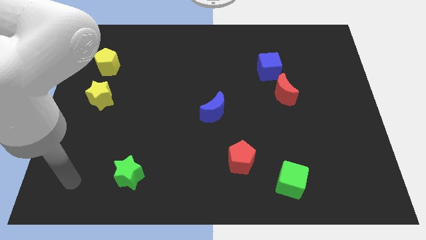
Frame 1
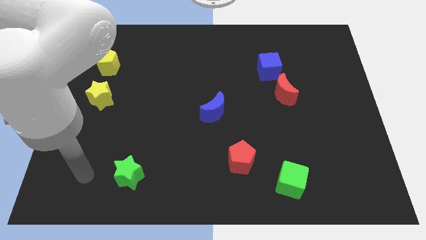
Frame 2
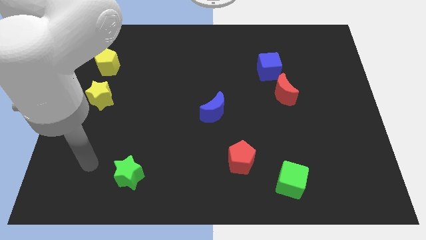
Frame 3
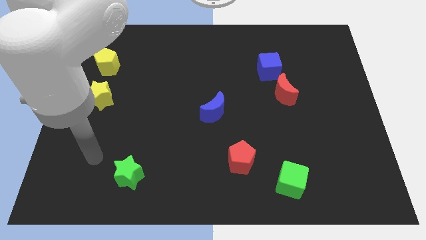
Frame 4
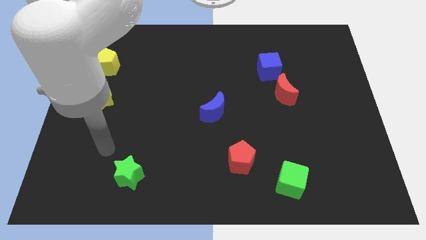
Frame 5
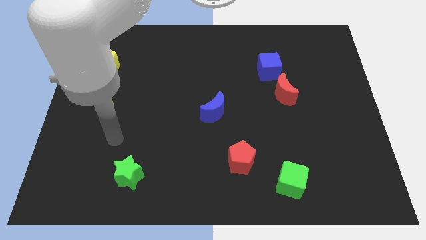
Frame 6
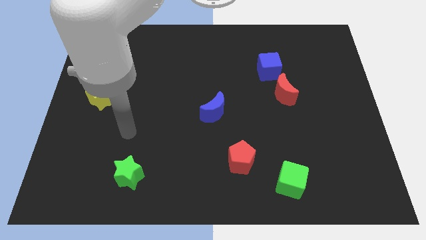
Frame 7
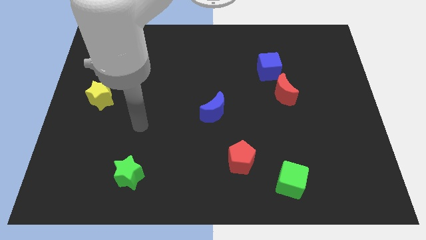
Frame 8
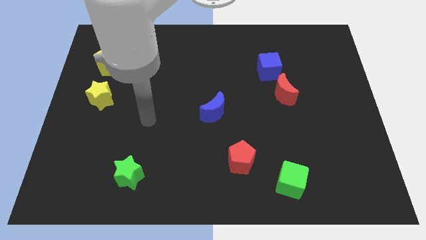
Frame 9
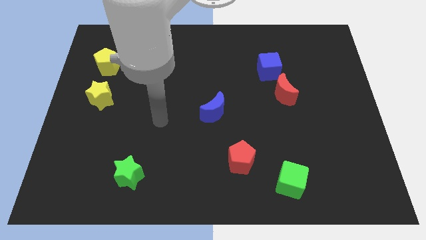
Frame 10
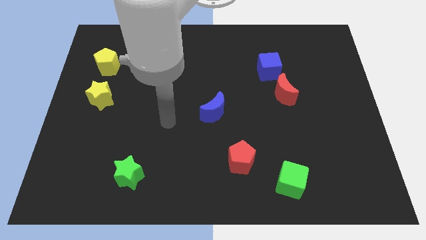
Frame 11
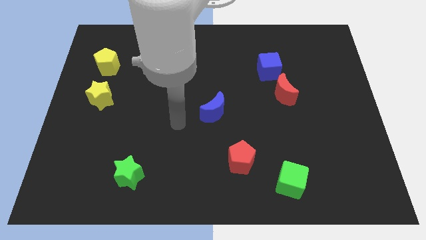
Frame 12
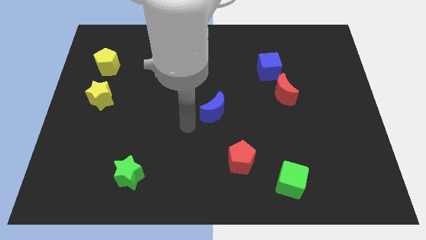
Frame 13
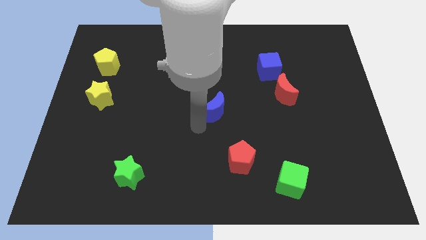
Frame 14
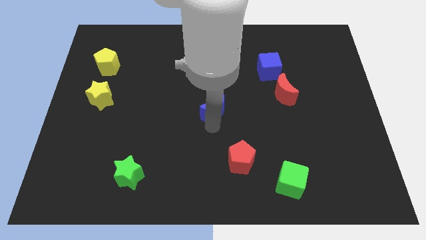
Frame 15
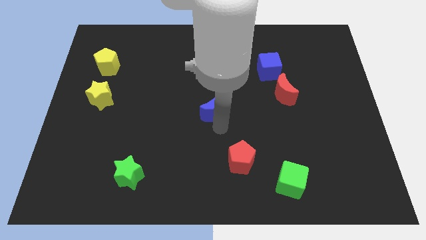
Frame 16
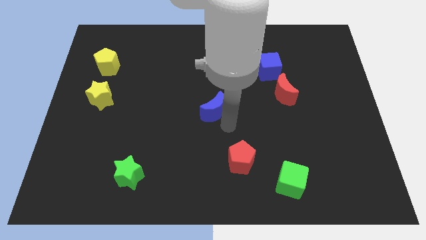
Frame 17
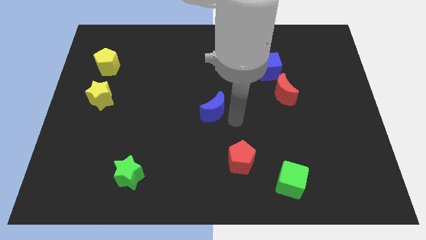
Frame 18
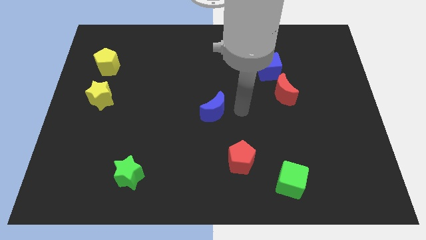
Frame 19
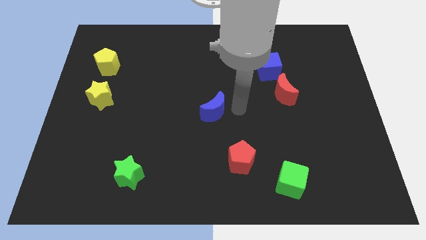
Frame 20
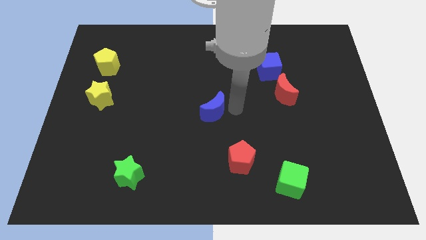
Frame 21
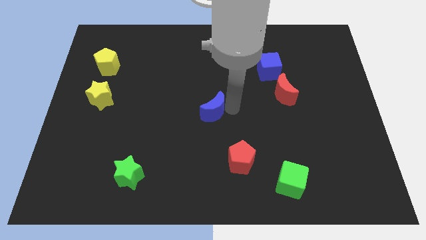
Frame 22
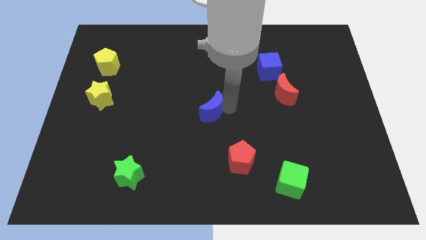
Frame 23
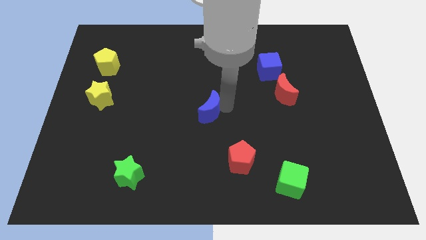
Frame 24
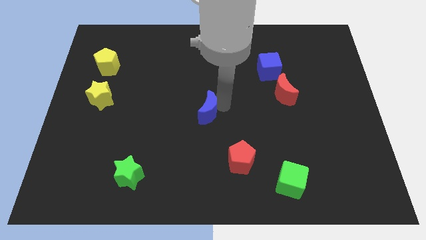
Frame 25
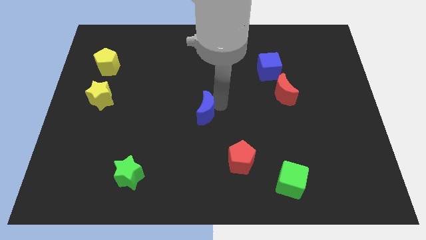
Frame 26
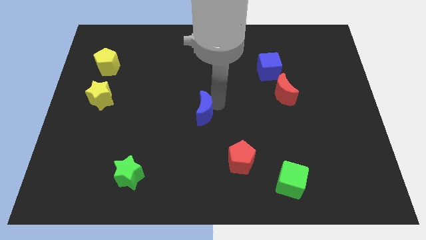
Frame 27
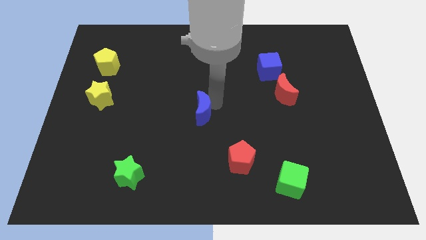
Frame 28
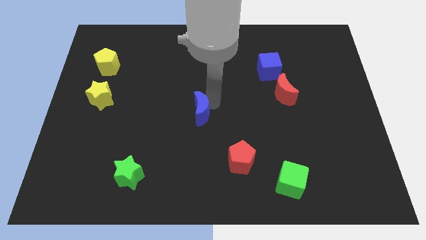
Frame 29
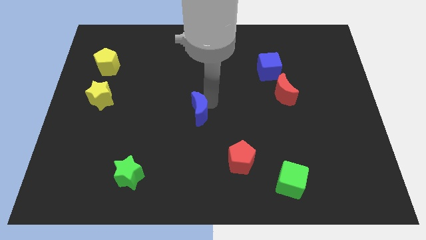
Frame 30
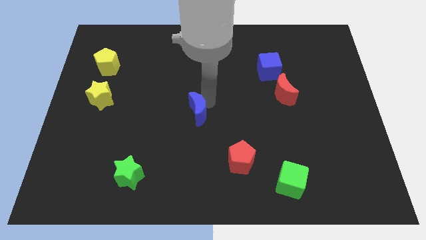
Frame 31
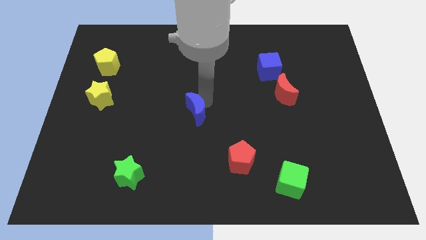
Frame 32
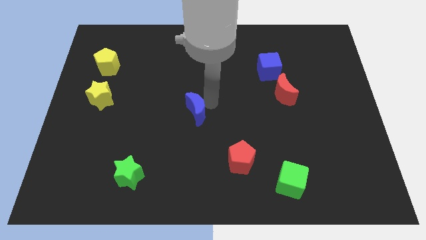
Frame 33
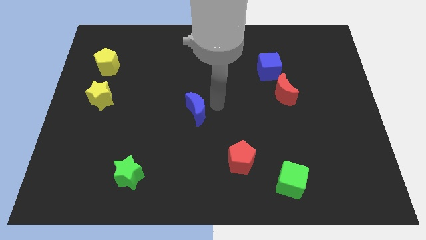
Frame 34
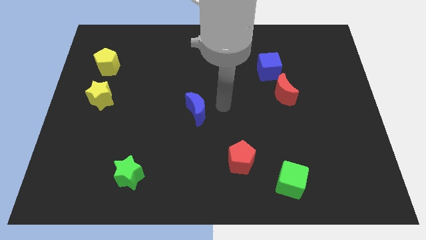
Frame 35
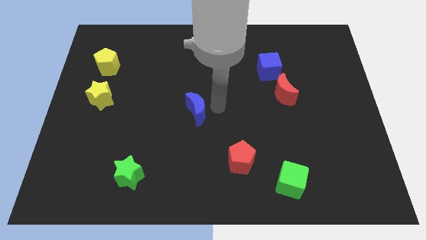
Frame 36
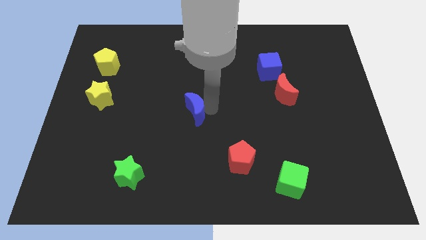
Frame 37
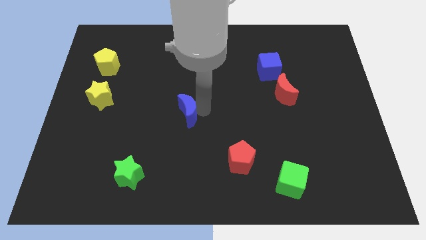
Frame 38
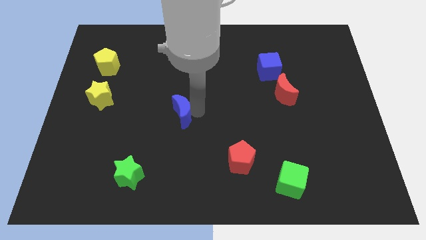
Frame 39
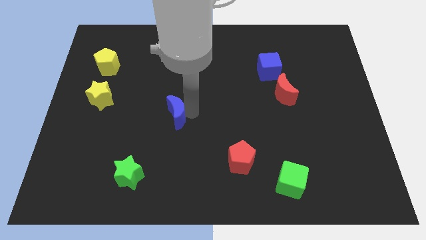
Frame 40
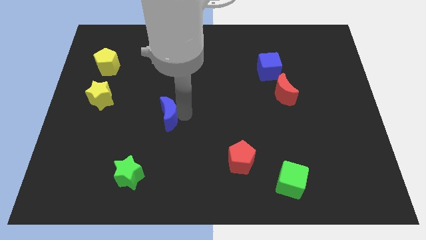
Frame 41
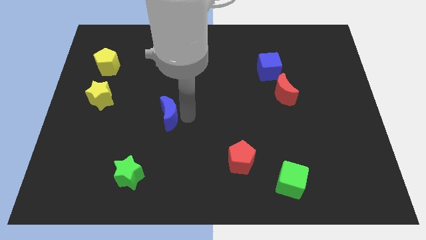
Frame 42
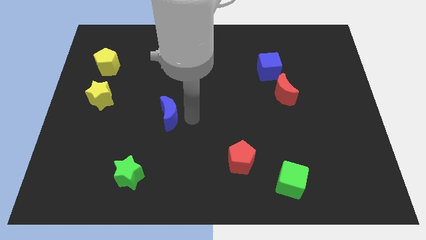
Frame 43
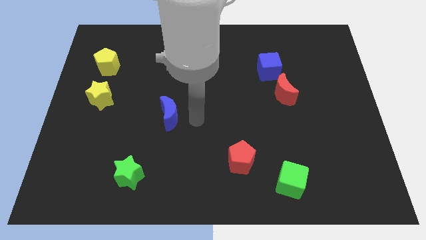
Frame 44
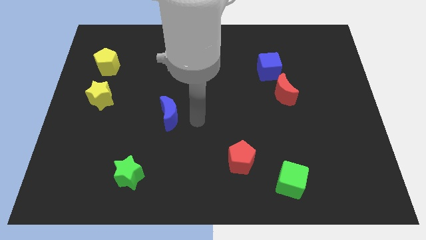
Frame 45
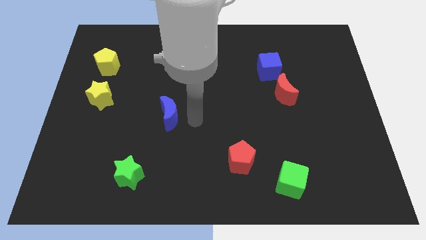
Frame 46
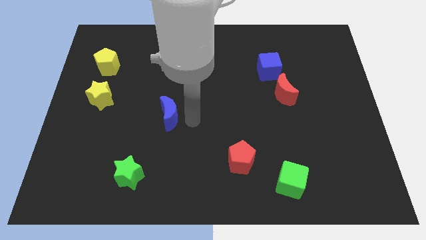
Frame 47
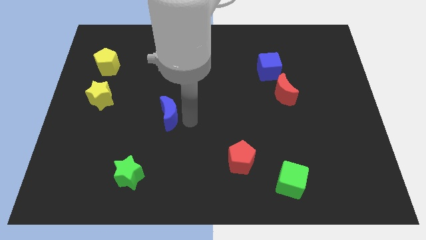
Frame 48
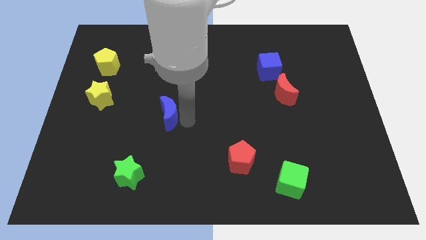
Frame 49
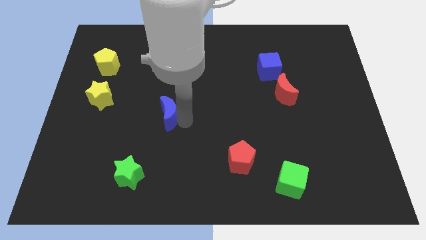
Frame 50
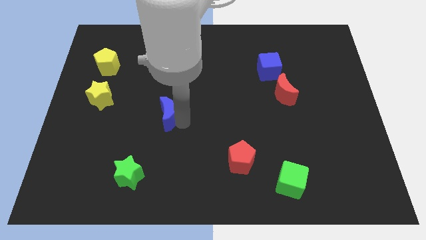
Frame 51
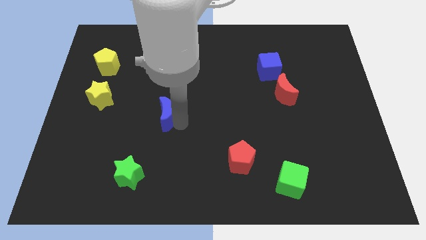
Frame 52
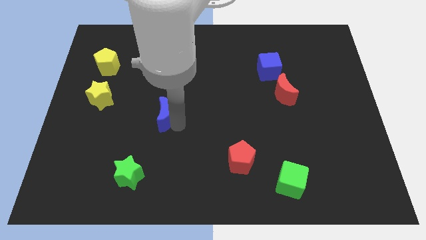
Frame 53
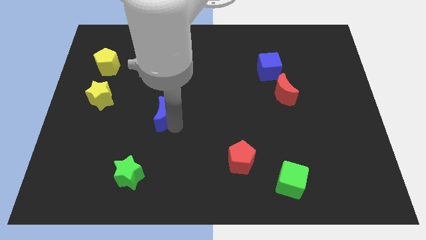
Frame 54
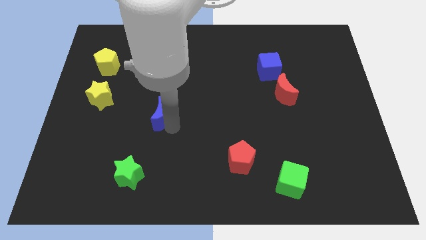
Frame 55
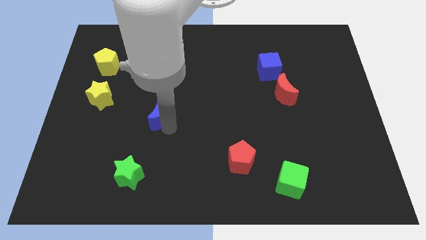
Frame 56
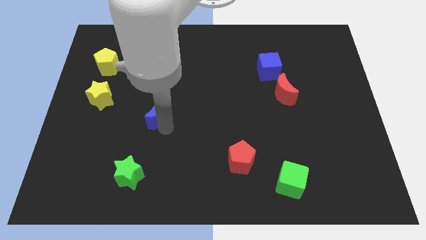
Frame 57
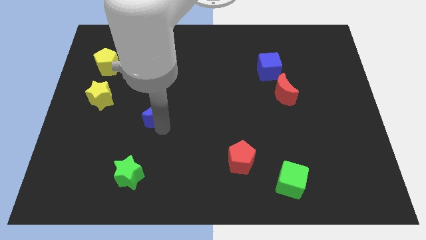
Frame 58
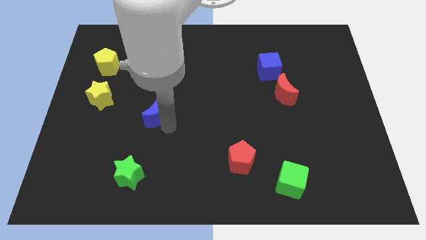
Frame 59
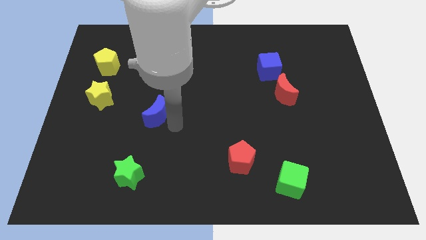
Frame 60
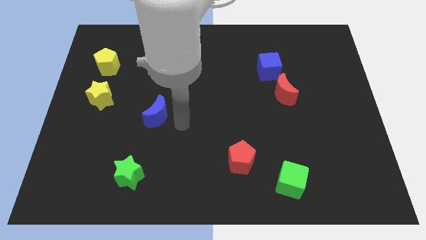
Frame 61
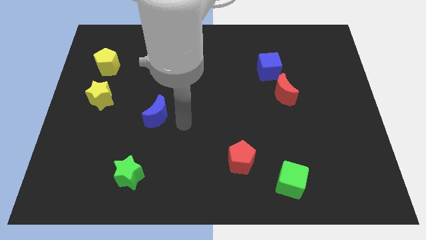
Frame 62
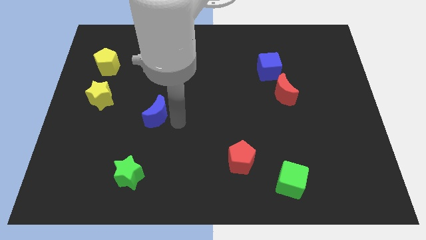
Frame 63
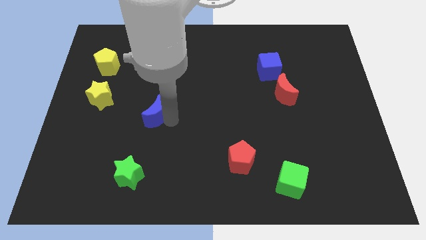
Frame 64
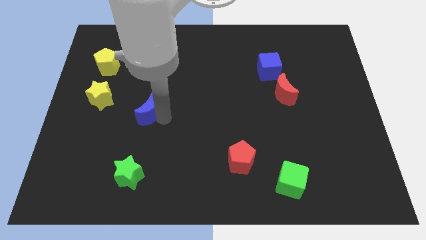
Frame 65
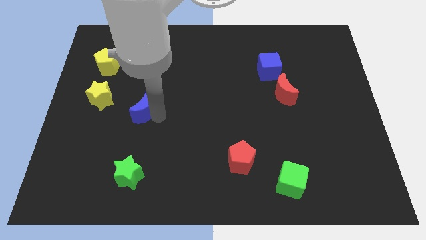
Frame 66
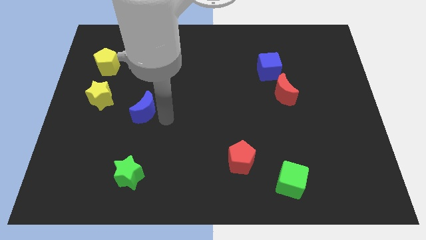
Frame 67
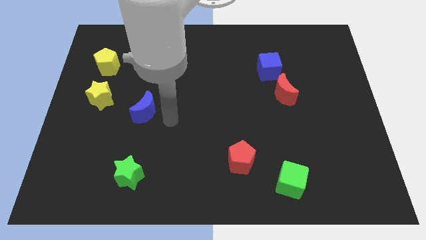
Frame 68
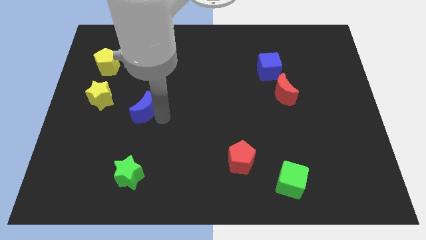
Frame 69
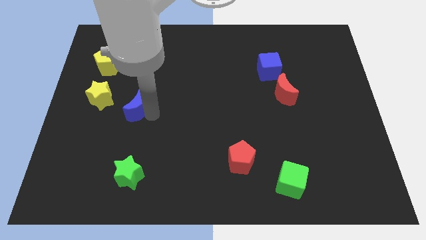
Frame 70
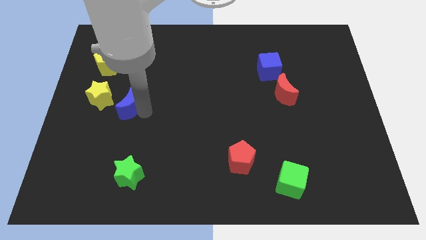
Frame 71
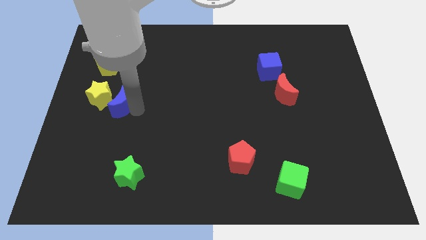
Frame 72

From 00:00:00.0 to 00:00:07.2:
slide the blue moon close to the yellow star

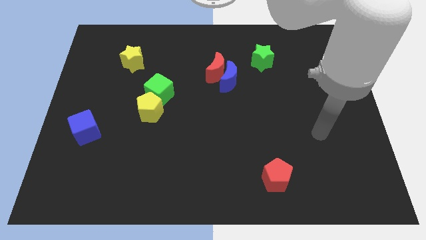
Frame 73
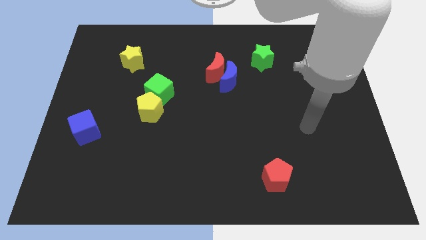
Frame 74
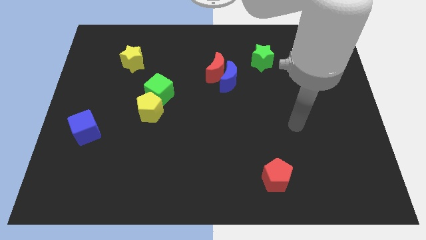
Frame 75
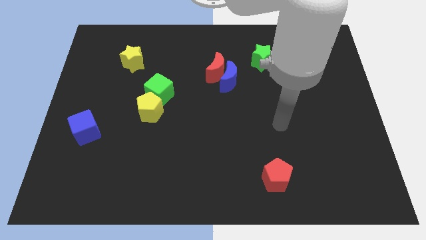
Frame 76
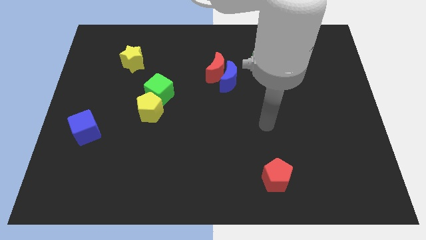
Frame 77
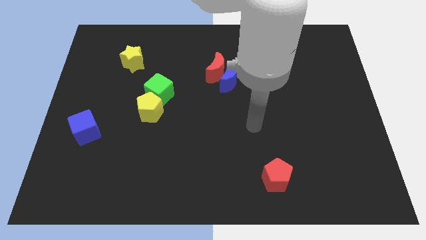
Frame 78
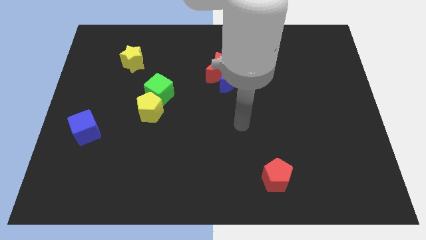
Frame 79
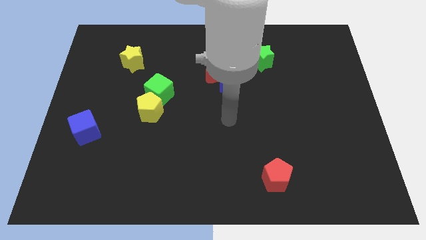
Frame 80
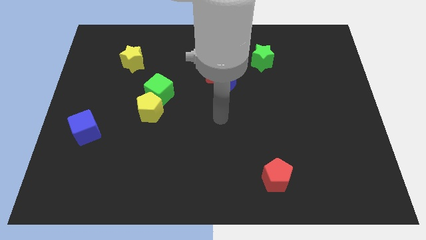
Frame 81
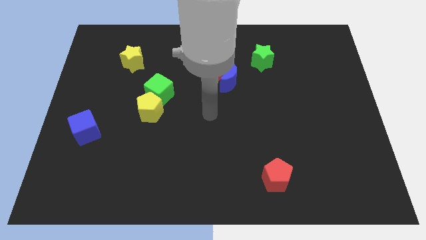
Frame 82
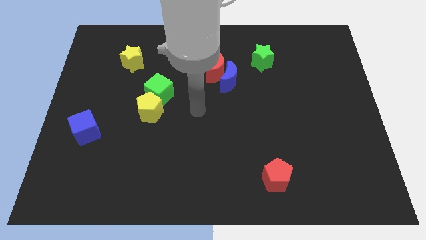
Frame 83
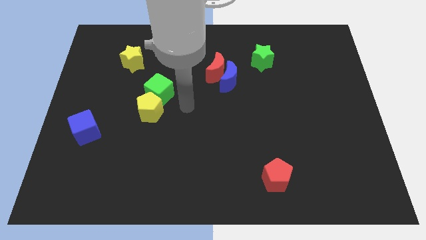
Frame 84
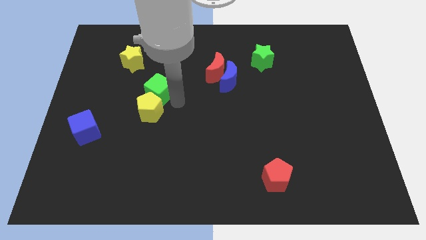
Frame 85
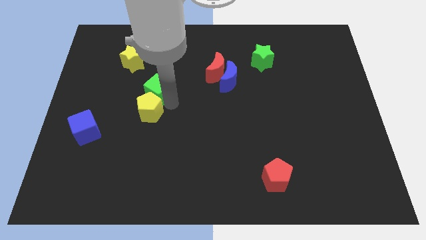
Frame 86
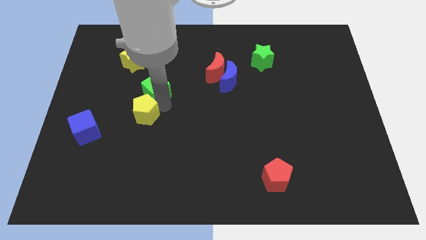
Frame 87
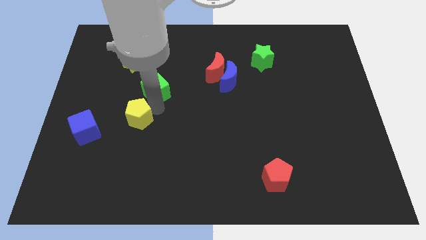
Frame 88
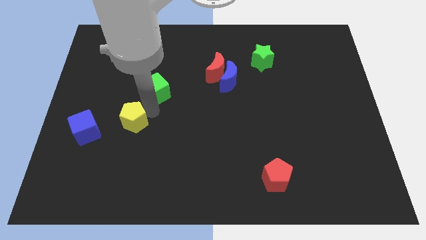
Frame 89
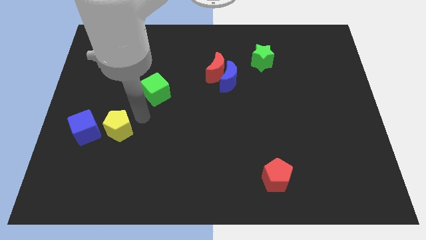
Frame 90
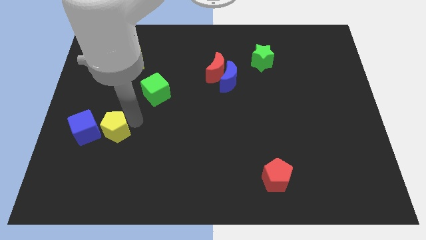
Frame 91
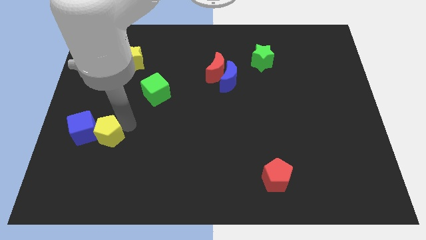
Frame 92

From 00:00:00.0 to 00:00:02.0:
move the yellow pentagon to the blue cube
